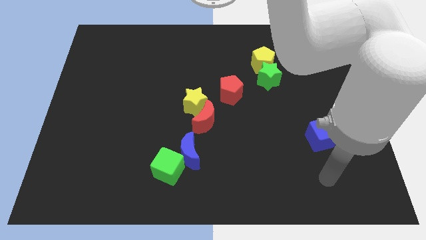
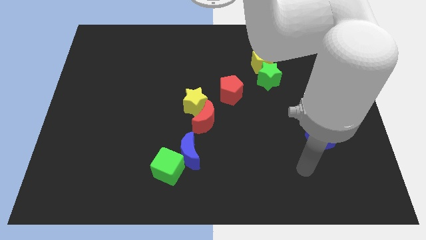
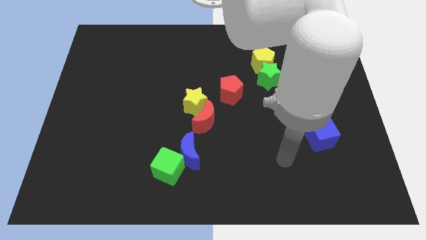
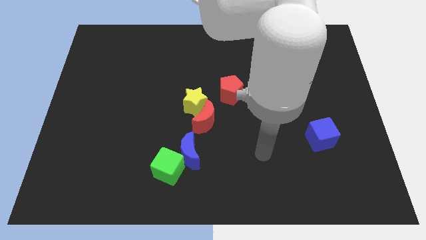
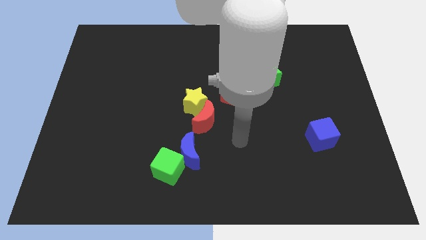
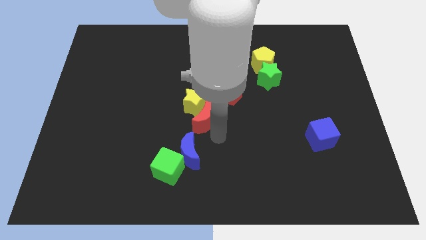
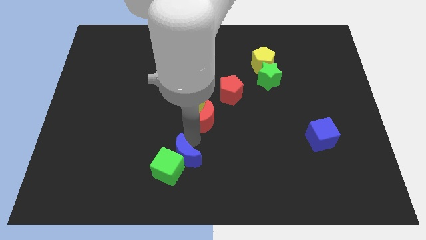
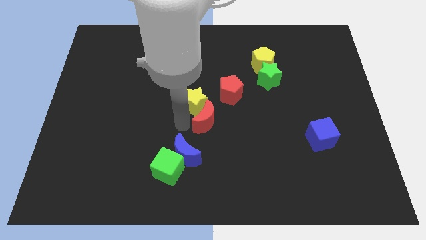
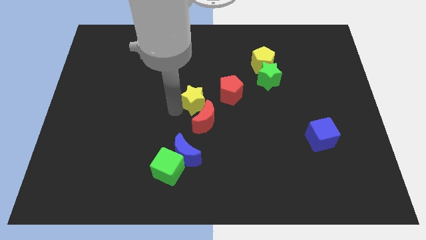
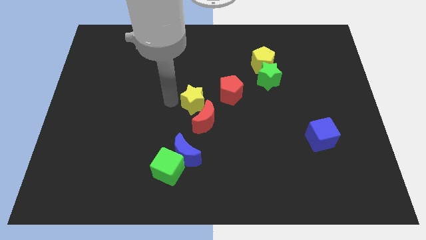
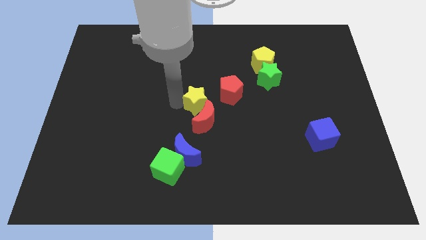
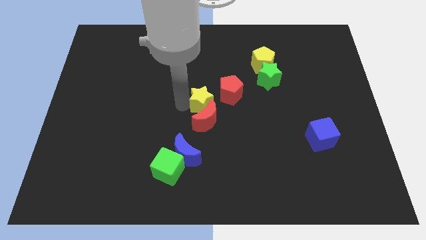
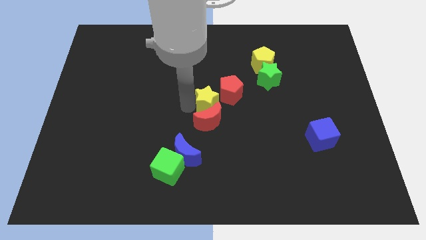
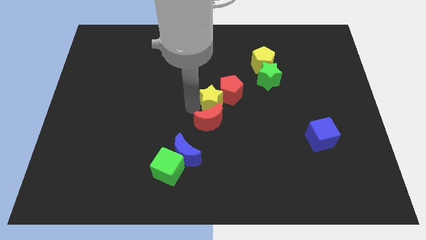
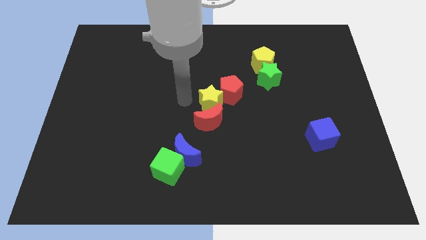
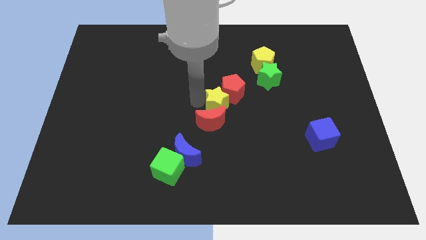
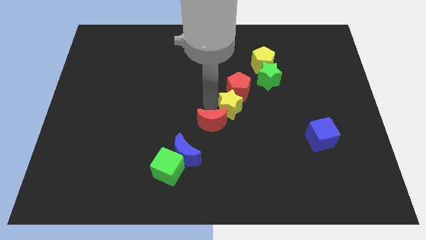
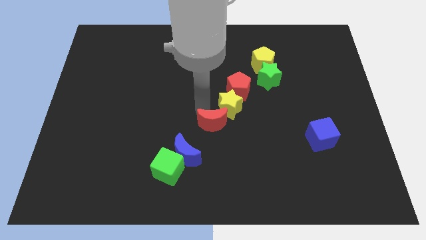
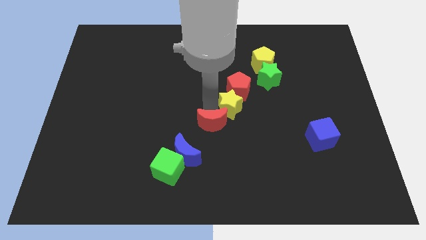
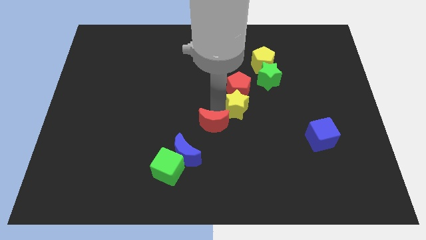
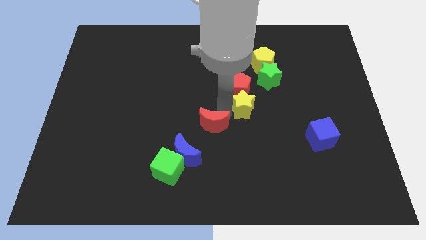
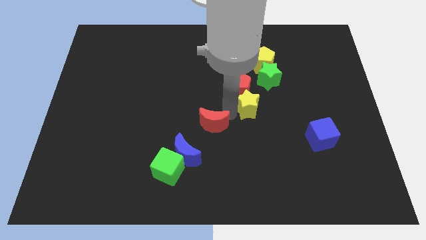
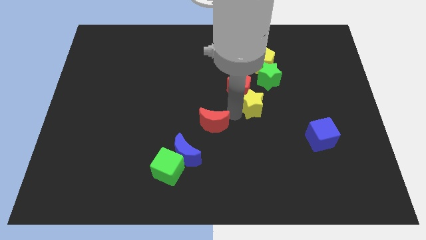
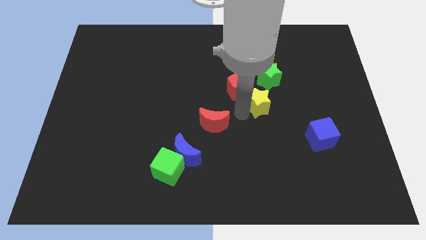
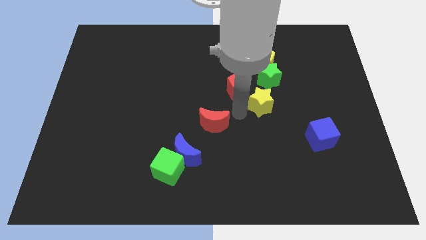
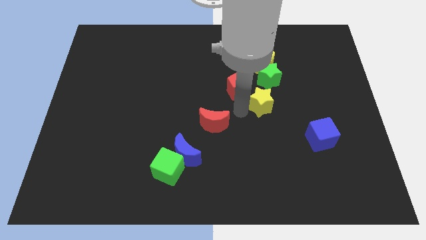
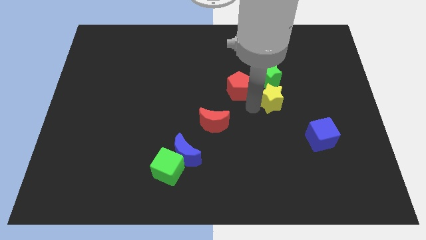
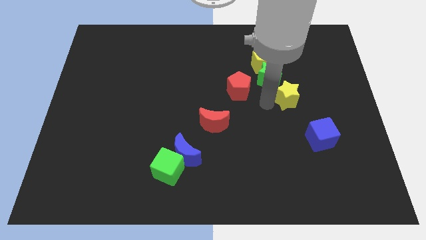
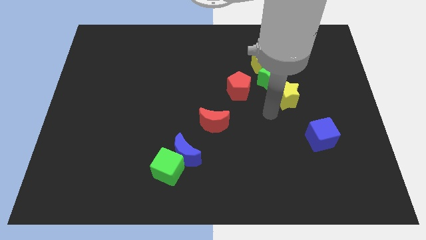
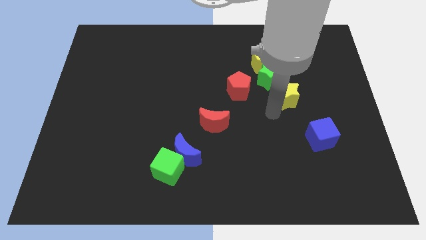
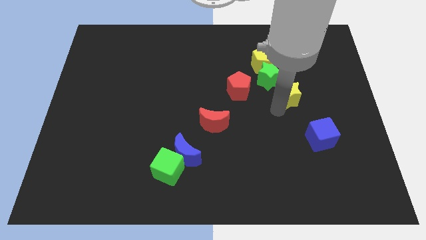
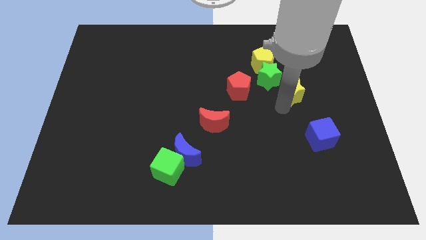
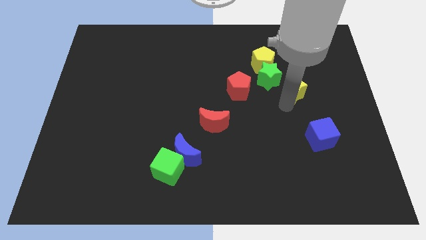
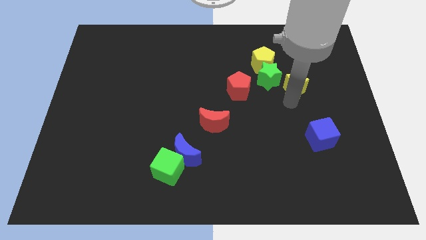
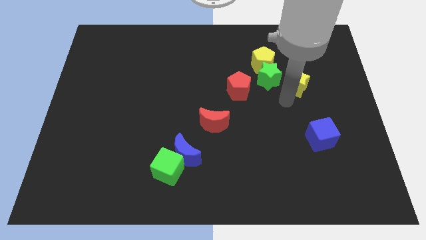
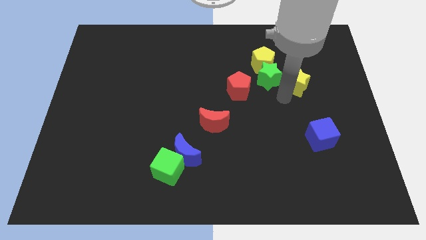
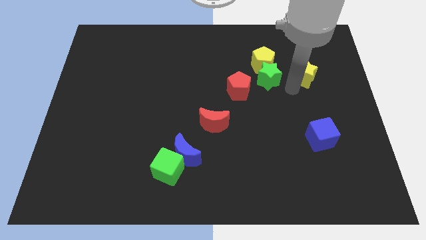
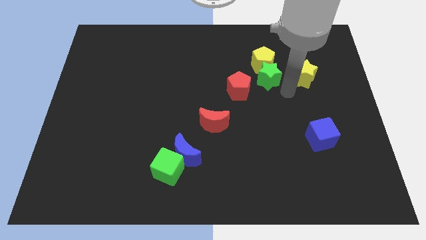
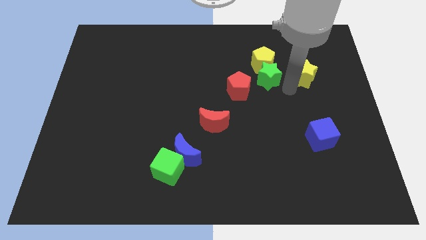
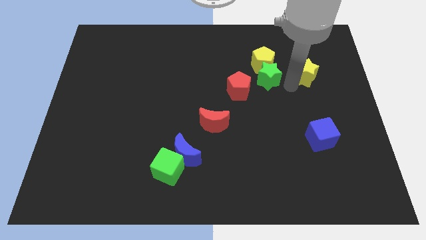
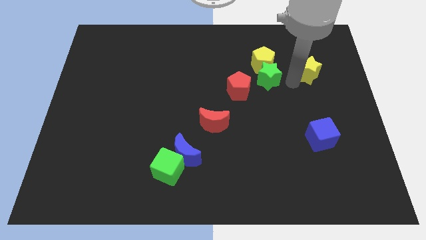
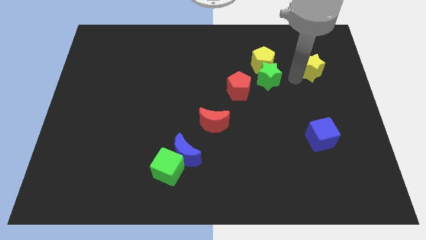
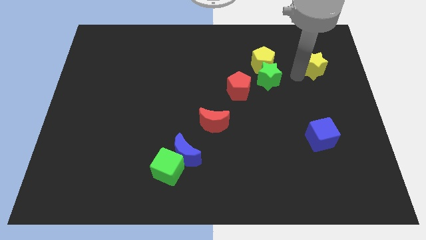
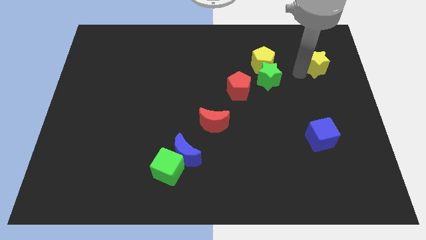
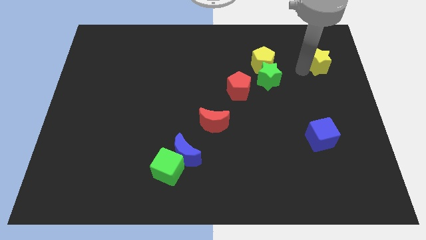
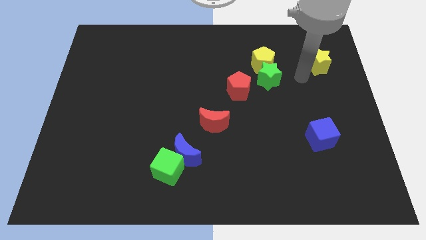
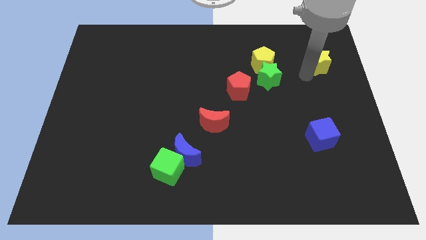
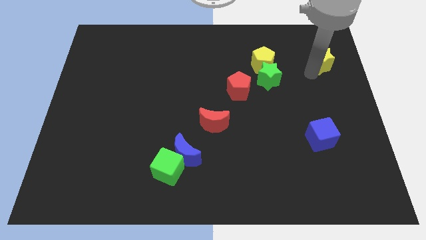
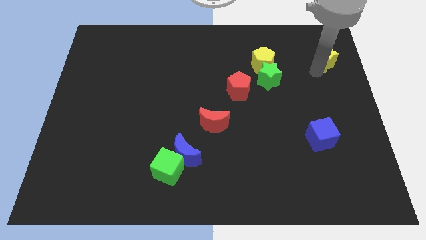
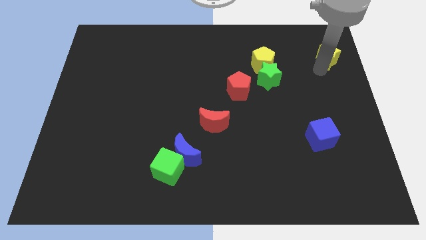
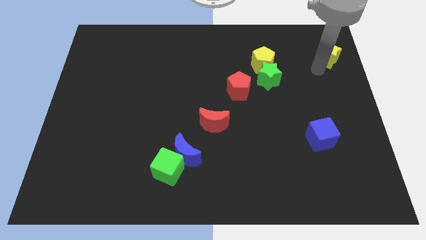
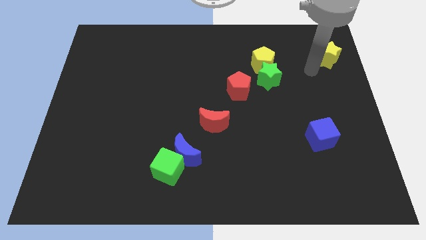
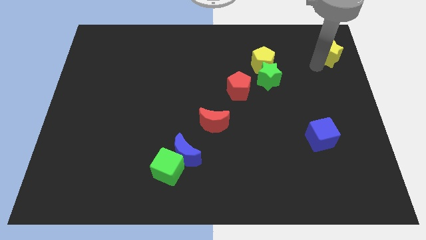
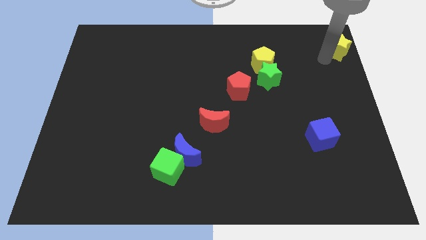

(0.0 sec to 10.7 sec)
push the yellow star to the top right corner
